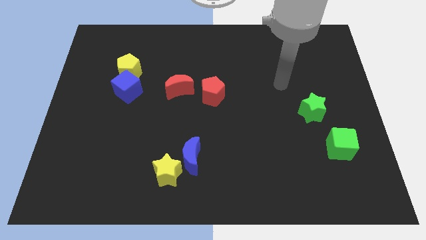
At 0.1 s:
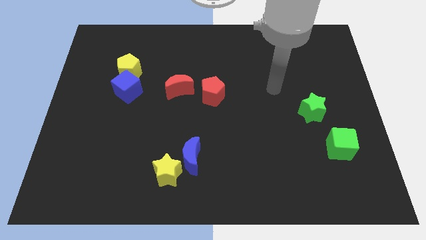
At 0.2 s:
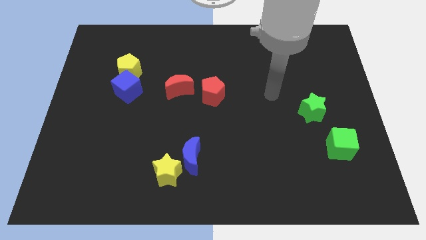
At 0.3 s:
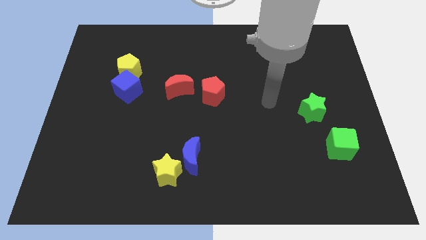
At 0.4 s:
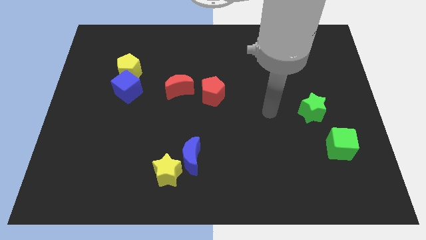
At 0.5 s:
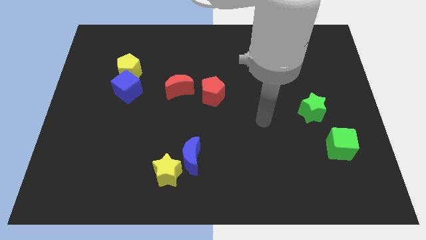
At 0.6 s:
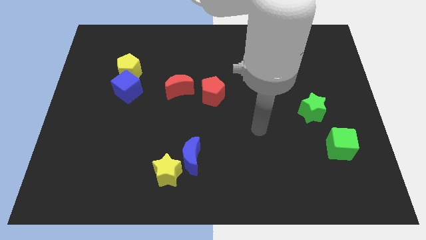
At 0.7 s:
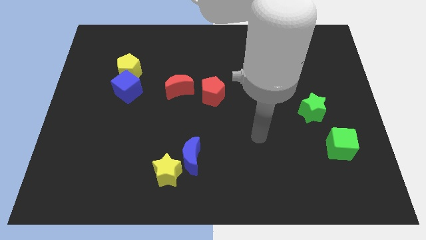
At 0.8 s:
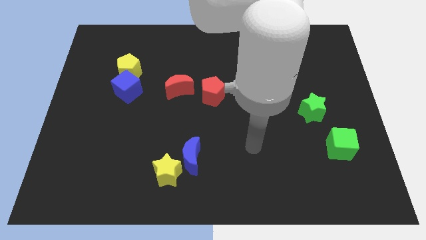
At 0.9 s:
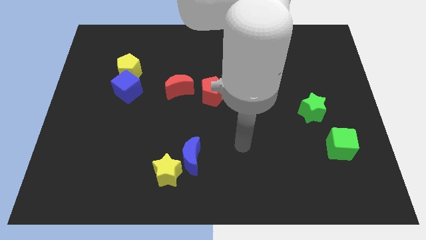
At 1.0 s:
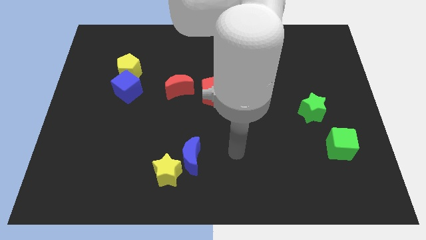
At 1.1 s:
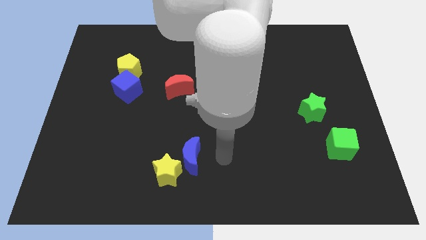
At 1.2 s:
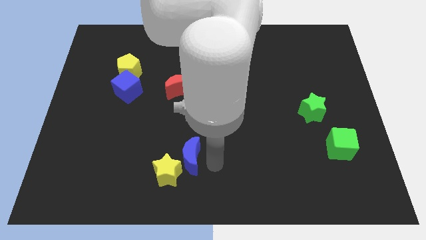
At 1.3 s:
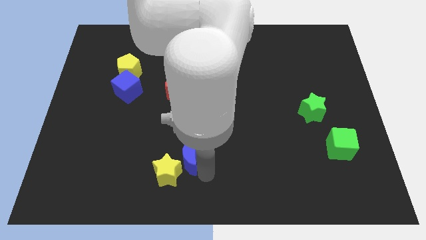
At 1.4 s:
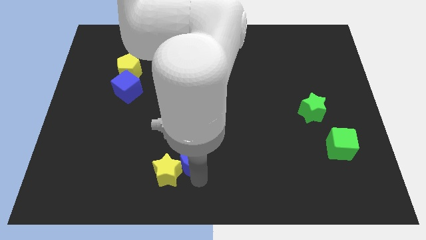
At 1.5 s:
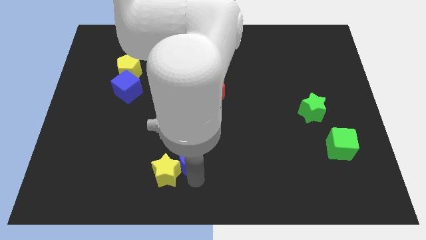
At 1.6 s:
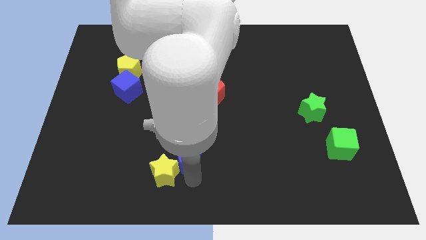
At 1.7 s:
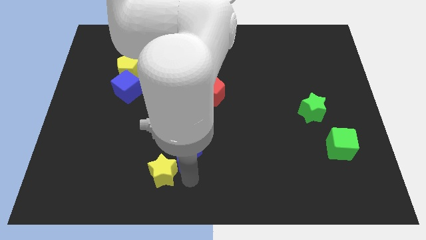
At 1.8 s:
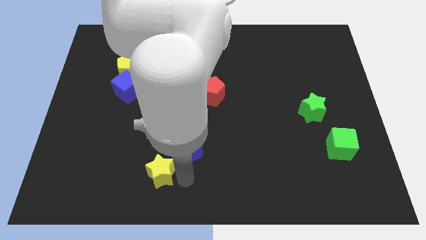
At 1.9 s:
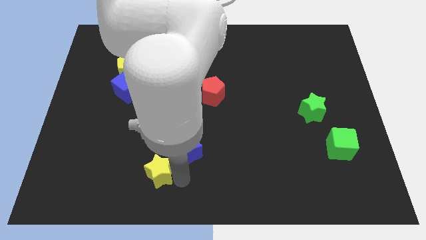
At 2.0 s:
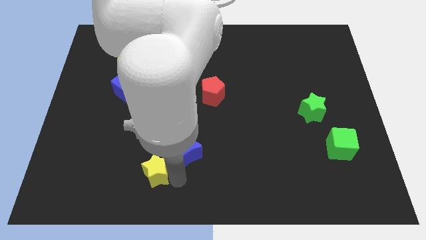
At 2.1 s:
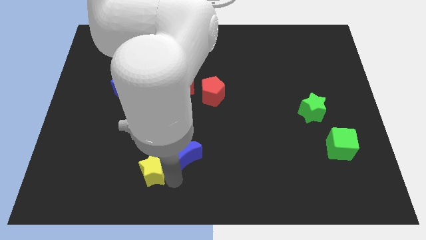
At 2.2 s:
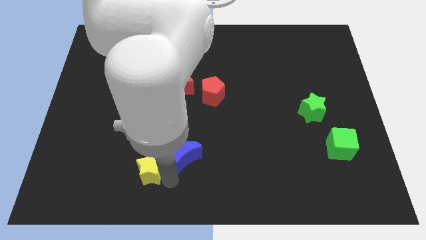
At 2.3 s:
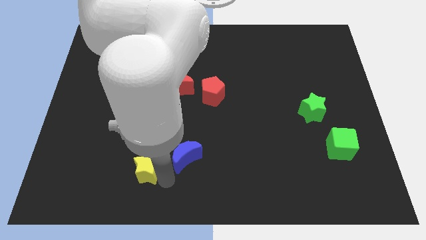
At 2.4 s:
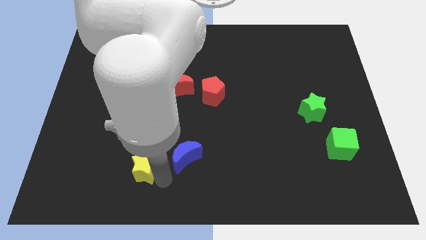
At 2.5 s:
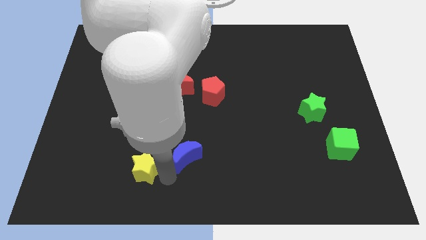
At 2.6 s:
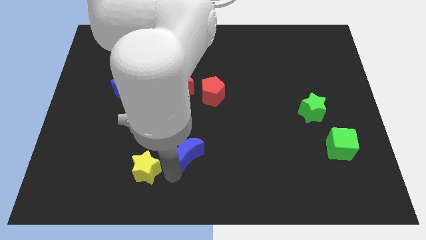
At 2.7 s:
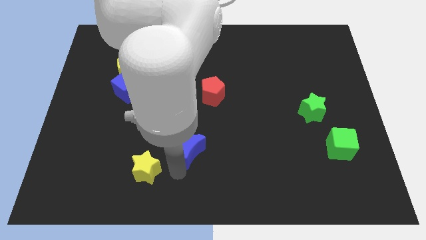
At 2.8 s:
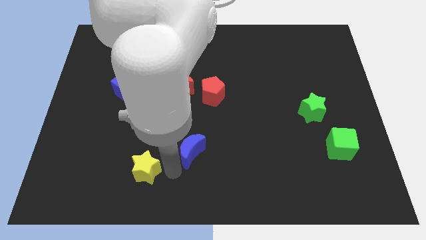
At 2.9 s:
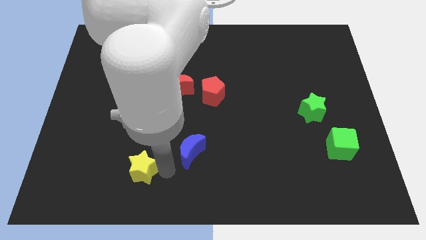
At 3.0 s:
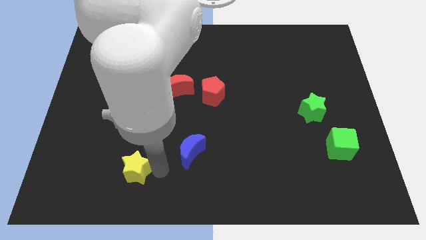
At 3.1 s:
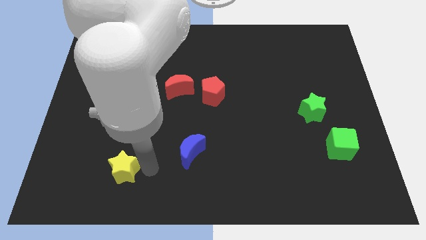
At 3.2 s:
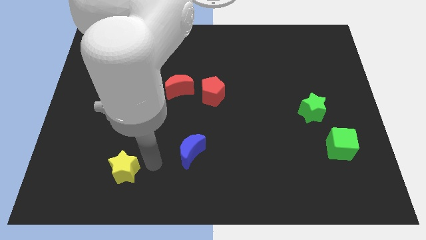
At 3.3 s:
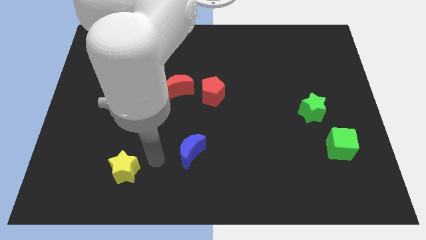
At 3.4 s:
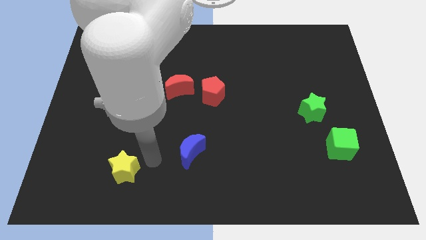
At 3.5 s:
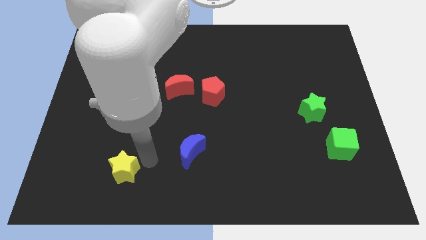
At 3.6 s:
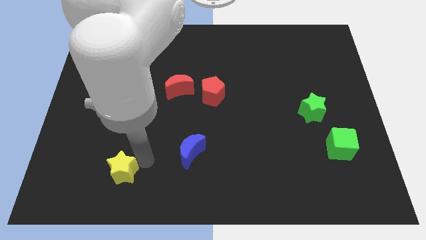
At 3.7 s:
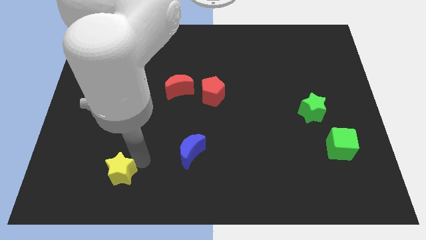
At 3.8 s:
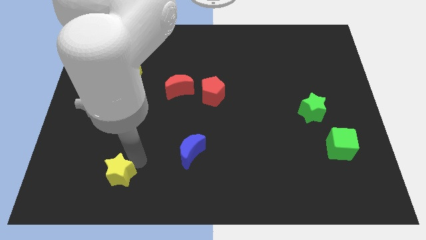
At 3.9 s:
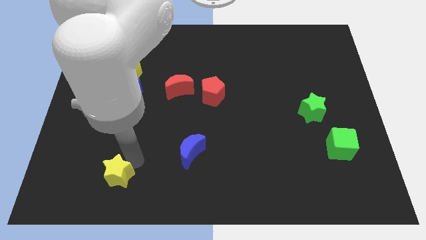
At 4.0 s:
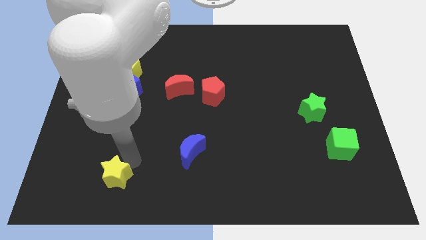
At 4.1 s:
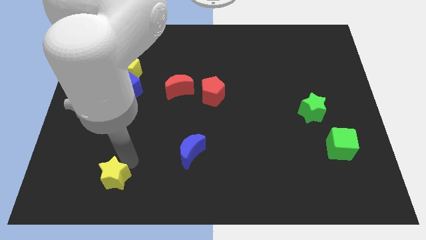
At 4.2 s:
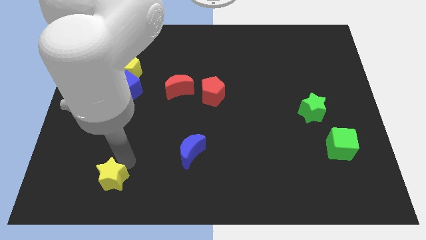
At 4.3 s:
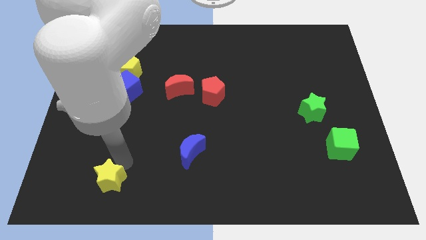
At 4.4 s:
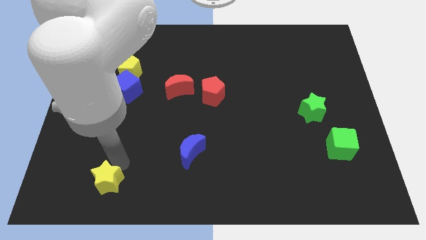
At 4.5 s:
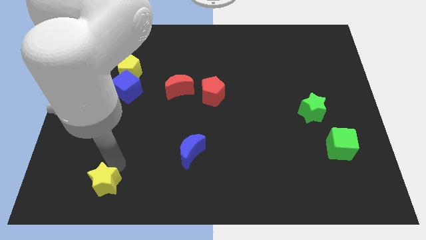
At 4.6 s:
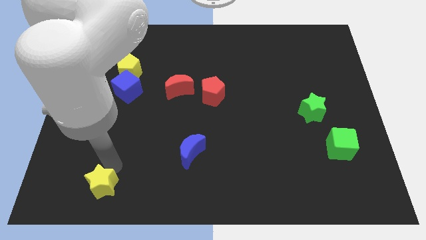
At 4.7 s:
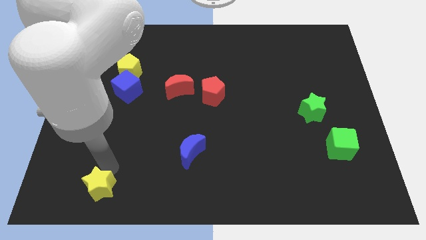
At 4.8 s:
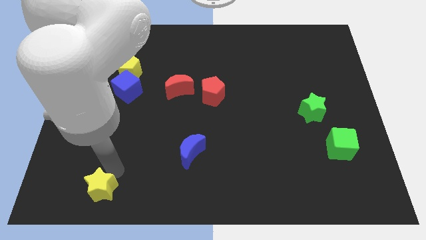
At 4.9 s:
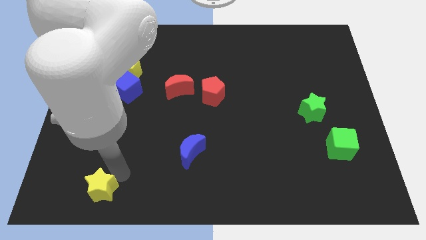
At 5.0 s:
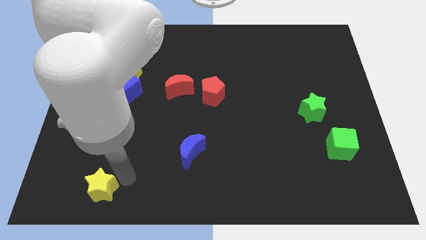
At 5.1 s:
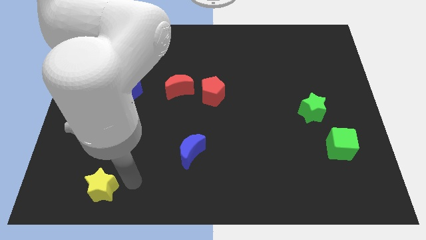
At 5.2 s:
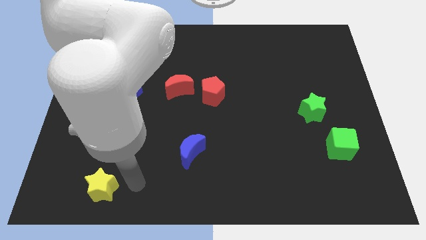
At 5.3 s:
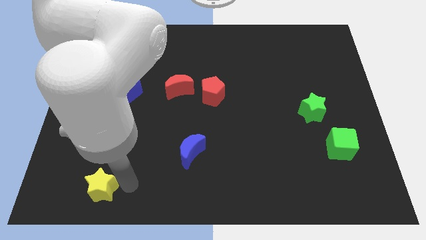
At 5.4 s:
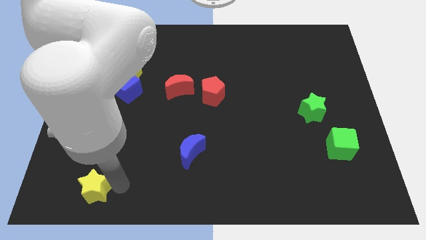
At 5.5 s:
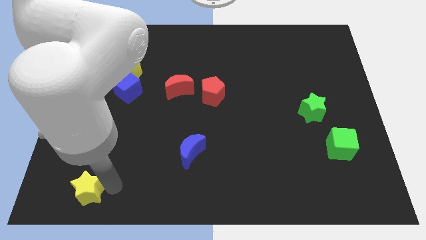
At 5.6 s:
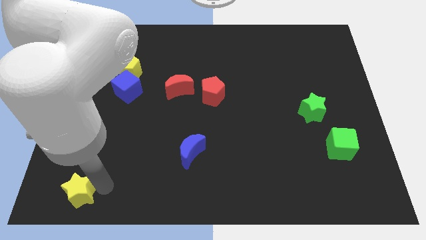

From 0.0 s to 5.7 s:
move the yellow star to the lower left corner
